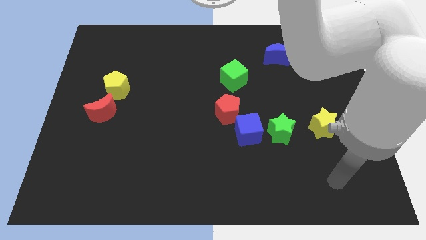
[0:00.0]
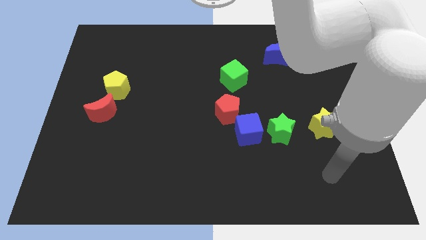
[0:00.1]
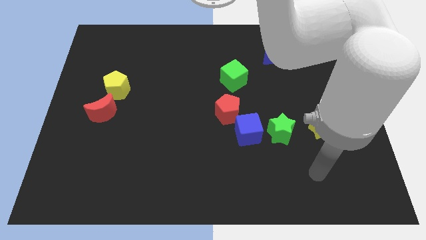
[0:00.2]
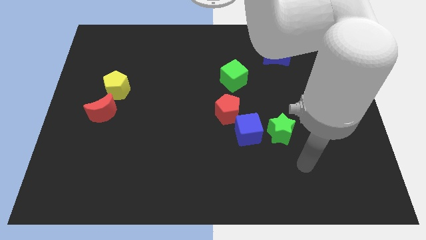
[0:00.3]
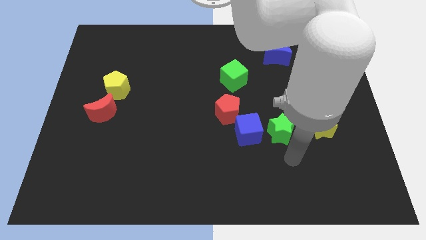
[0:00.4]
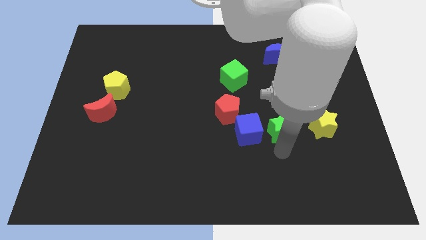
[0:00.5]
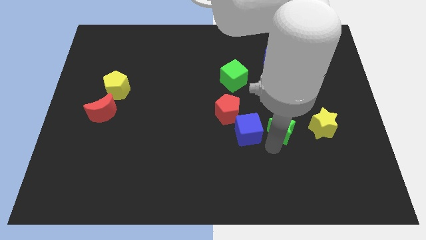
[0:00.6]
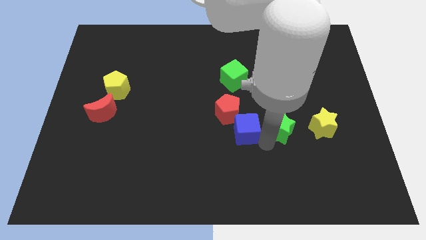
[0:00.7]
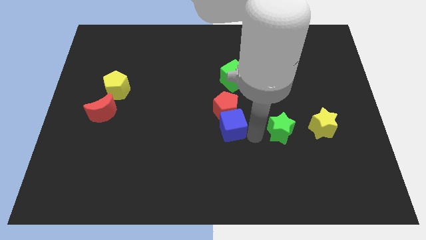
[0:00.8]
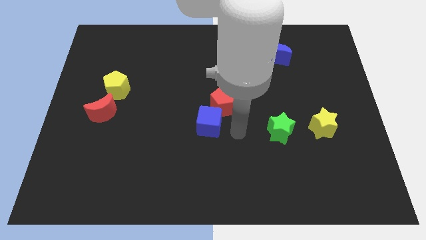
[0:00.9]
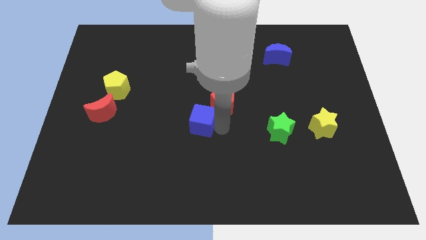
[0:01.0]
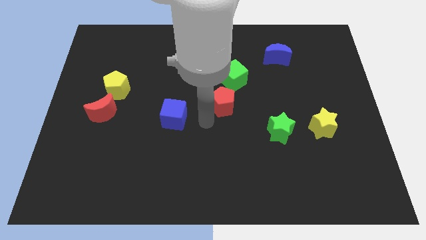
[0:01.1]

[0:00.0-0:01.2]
move the red pentagon away from the blue cube

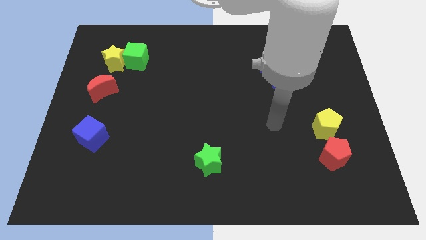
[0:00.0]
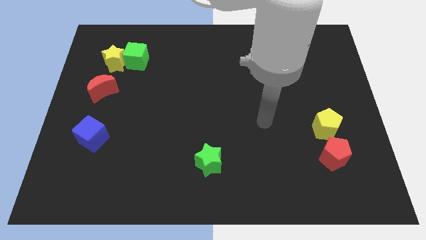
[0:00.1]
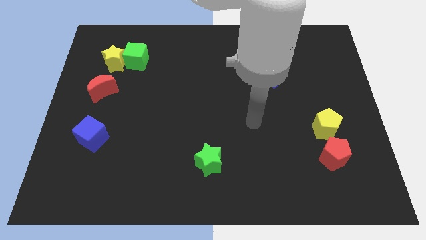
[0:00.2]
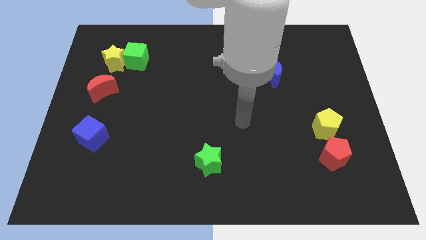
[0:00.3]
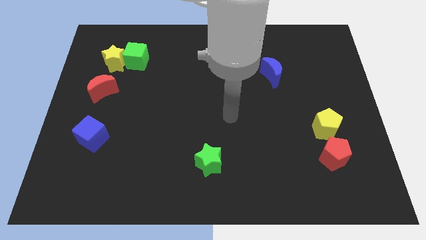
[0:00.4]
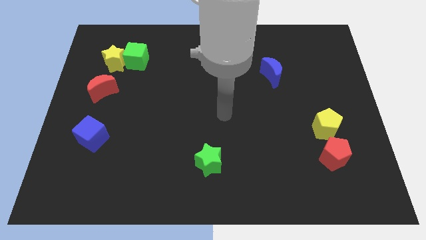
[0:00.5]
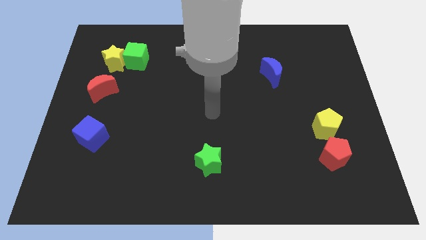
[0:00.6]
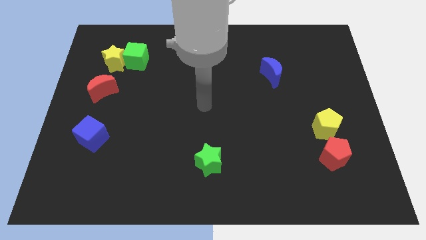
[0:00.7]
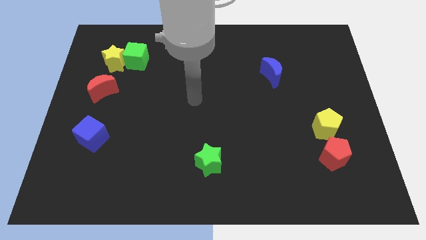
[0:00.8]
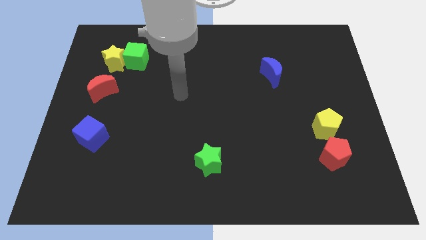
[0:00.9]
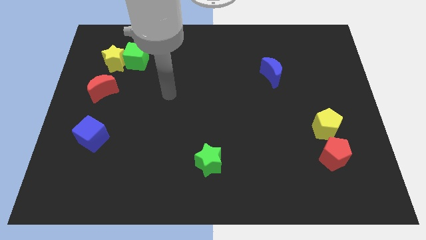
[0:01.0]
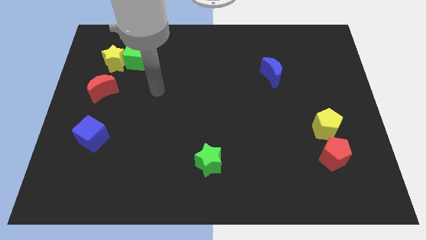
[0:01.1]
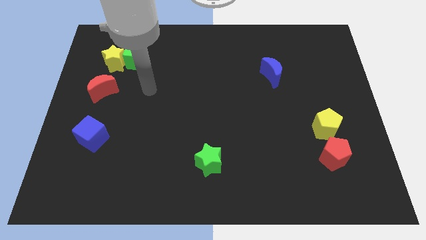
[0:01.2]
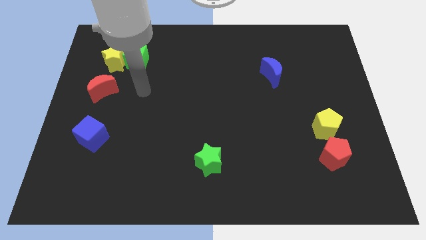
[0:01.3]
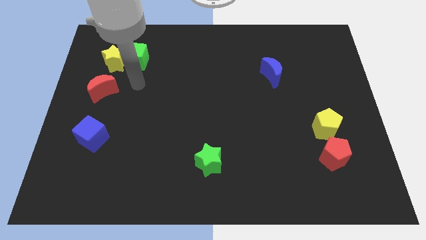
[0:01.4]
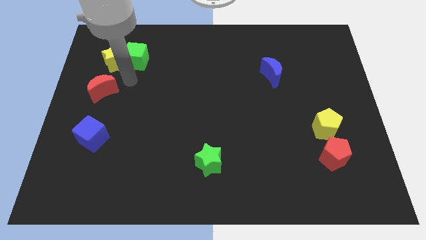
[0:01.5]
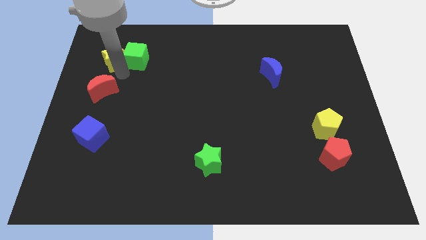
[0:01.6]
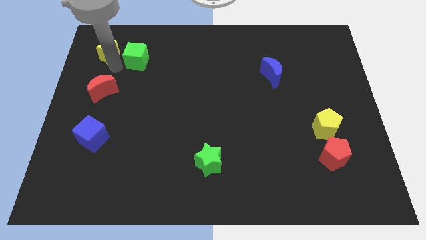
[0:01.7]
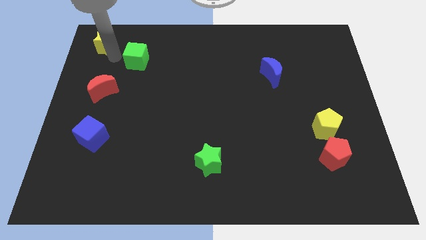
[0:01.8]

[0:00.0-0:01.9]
separate the green cube from the yellow star

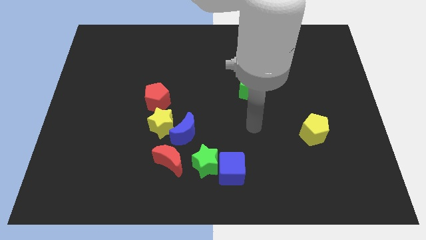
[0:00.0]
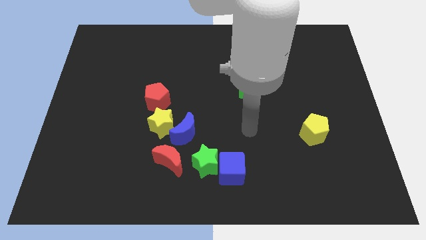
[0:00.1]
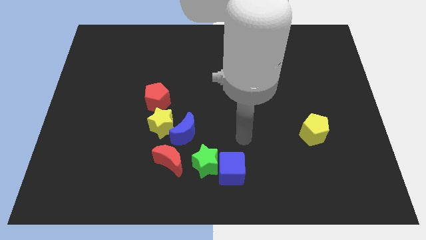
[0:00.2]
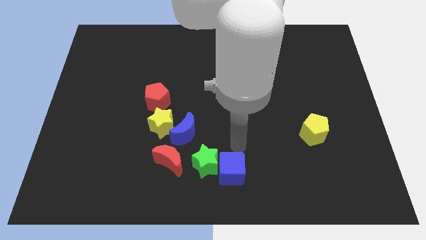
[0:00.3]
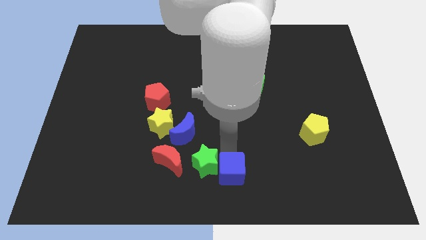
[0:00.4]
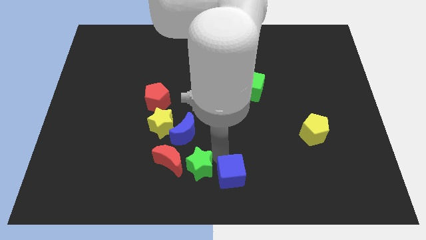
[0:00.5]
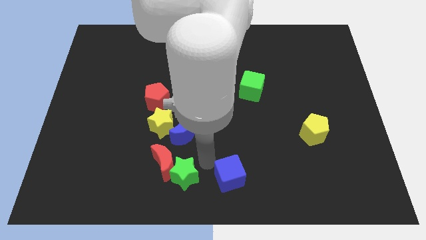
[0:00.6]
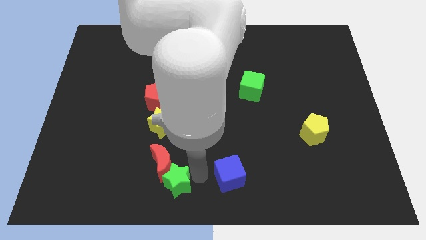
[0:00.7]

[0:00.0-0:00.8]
move the blue cube away from the green star

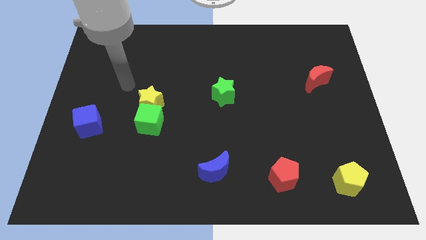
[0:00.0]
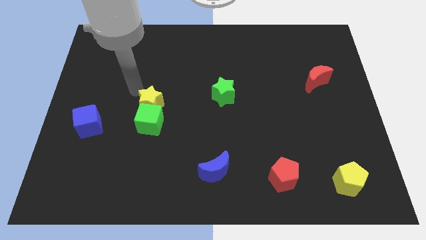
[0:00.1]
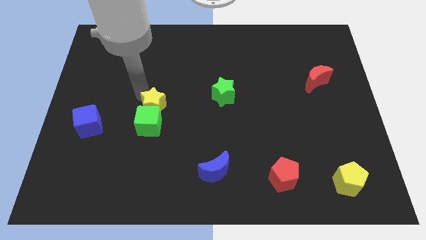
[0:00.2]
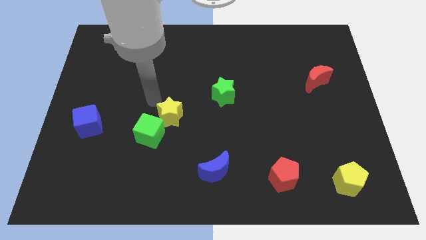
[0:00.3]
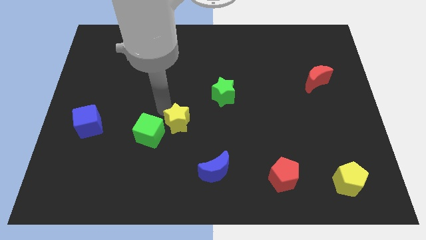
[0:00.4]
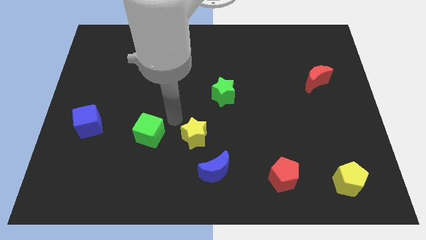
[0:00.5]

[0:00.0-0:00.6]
move the green cube away from the yellow star

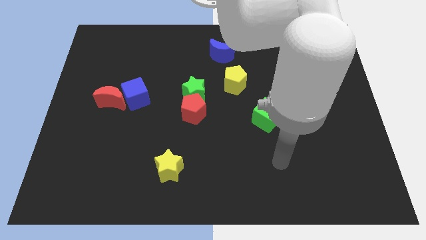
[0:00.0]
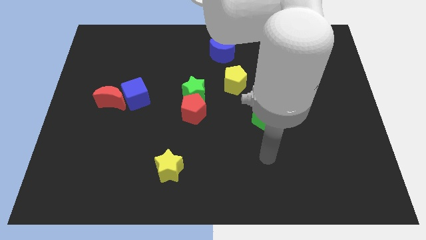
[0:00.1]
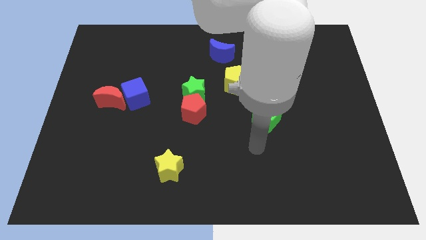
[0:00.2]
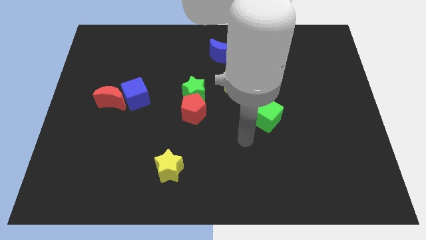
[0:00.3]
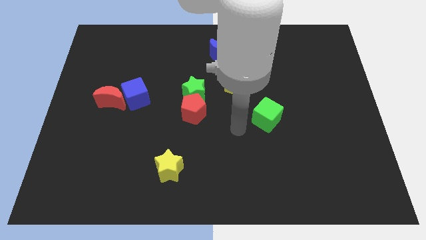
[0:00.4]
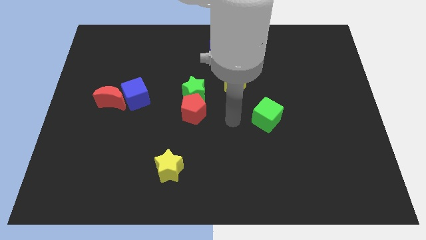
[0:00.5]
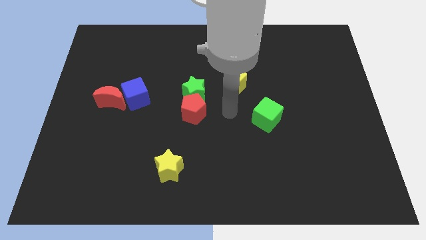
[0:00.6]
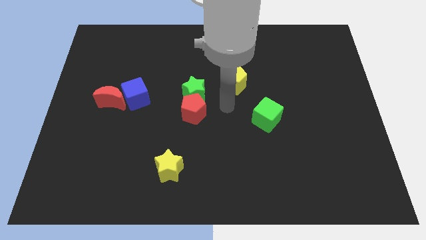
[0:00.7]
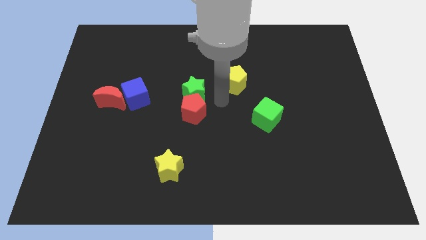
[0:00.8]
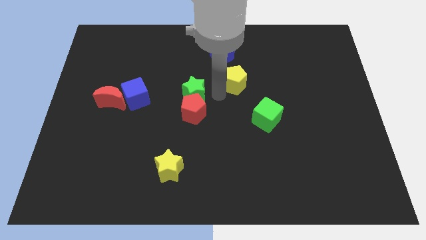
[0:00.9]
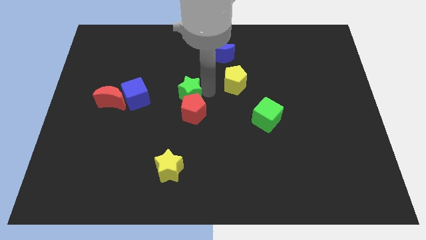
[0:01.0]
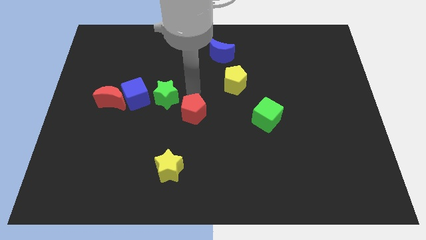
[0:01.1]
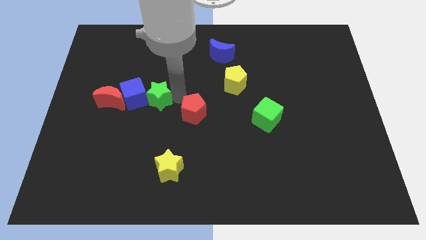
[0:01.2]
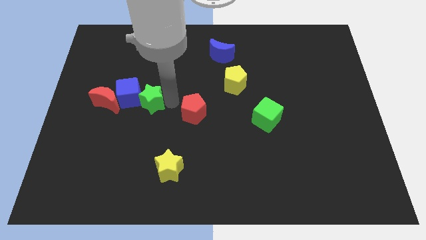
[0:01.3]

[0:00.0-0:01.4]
separate the red pentagon from the green star

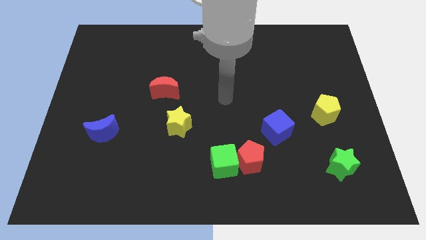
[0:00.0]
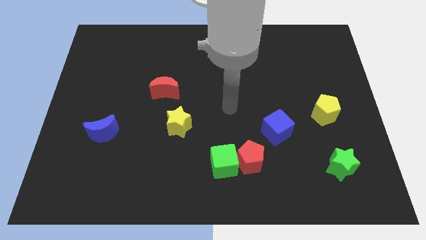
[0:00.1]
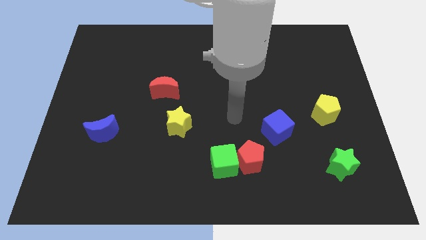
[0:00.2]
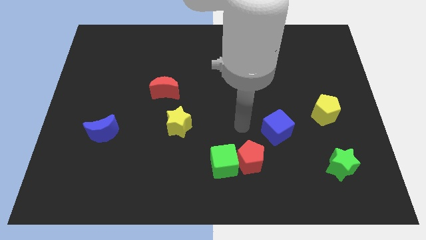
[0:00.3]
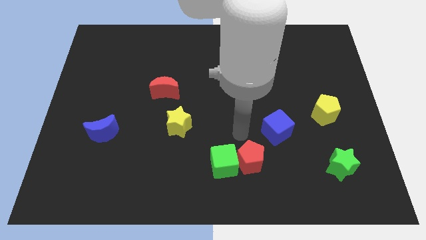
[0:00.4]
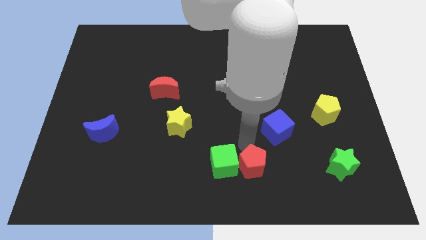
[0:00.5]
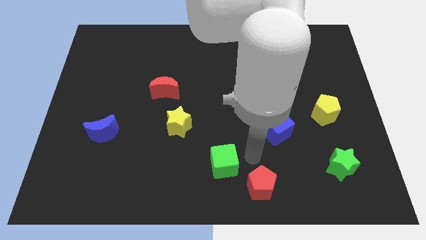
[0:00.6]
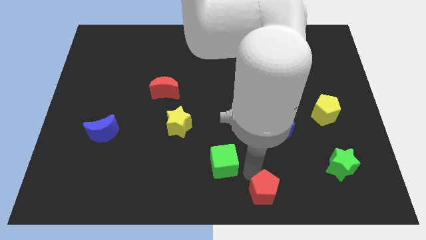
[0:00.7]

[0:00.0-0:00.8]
separate the green cube from the red pentagon

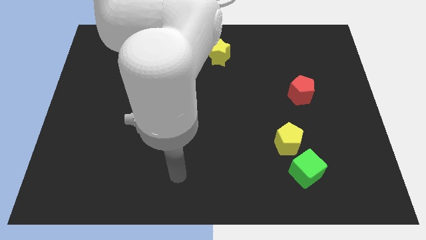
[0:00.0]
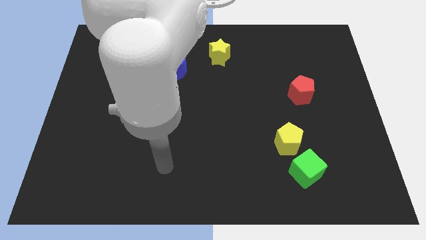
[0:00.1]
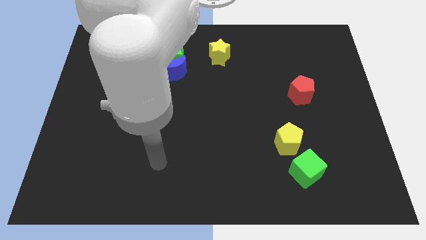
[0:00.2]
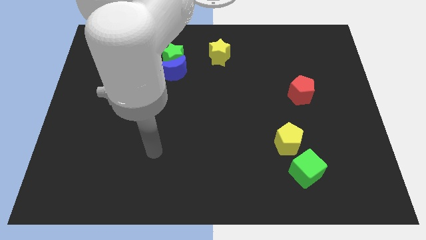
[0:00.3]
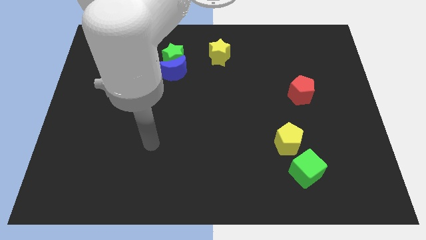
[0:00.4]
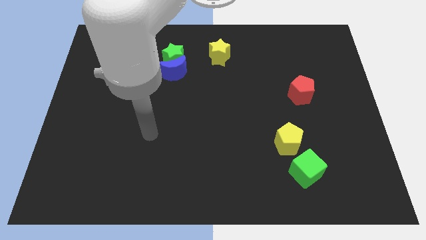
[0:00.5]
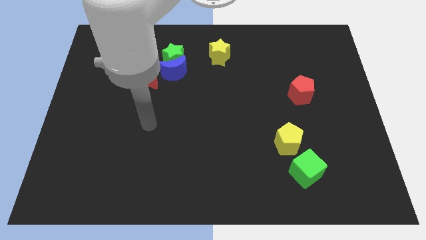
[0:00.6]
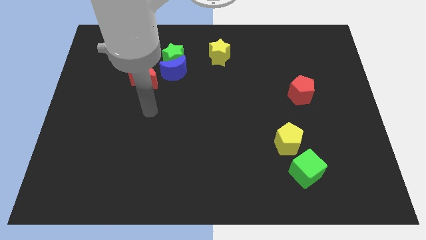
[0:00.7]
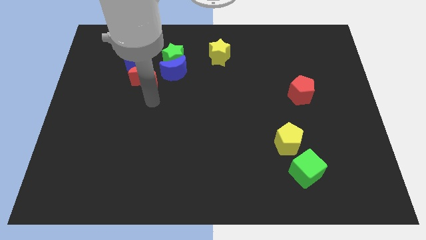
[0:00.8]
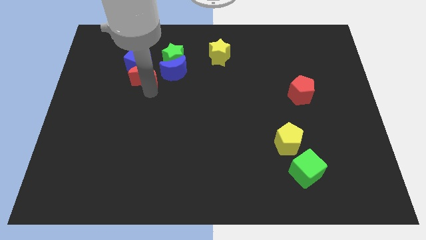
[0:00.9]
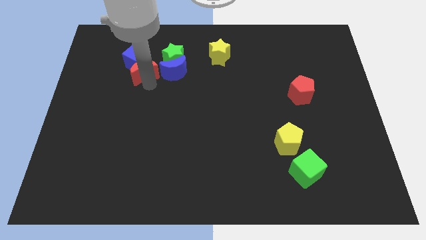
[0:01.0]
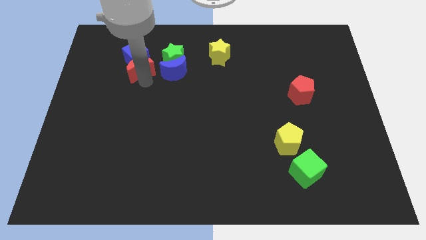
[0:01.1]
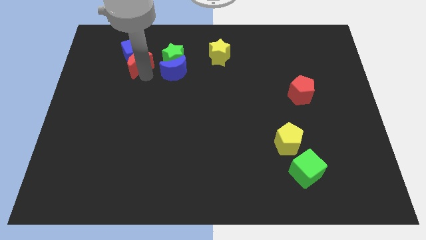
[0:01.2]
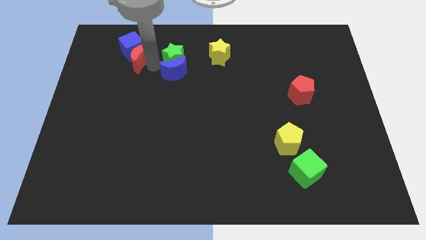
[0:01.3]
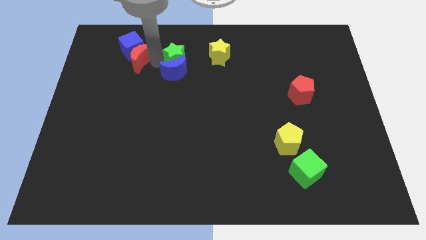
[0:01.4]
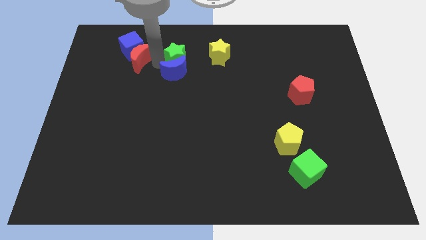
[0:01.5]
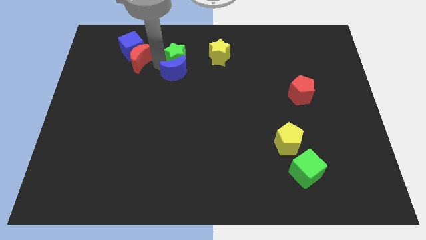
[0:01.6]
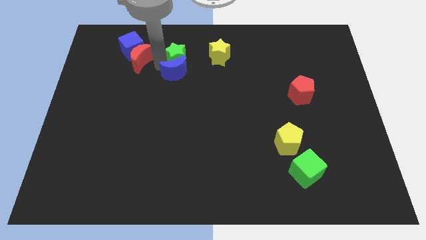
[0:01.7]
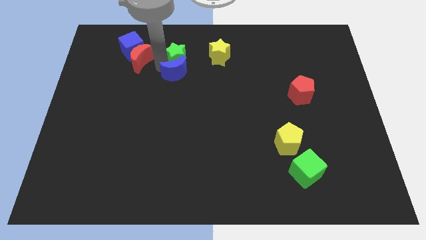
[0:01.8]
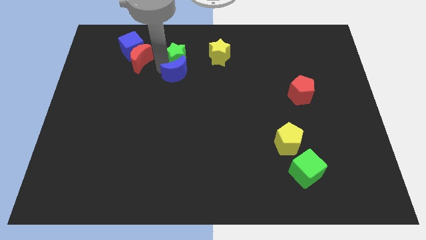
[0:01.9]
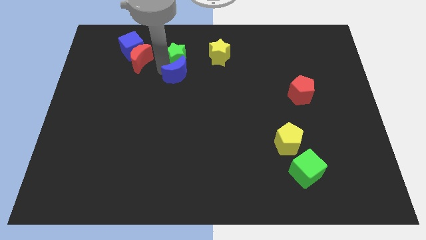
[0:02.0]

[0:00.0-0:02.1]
move the blue moon away from the green star, red moon, and blue cube

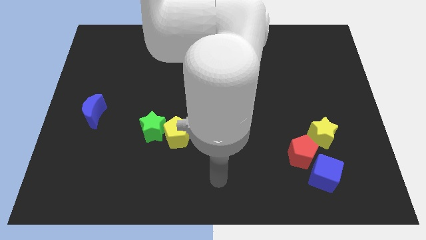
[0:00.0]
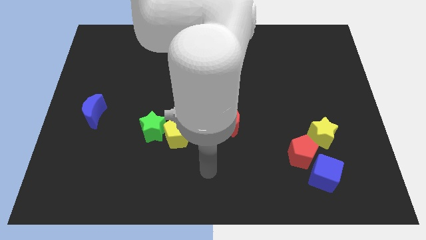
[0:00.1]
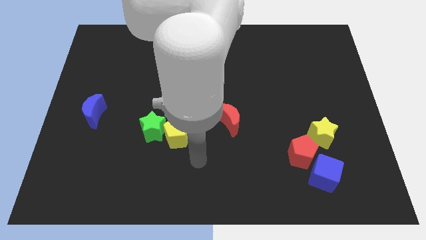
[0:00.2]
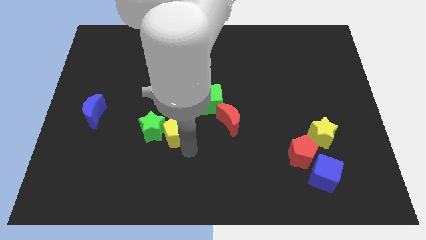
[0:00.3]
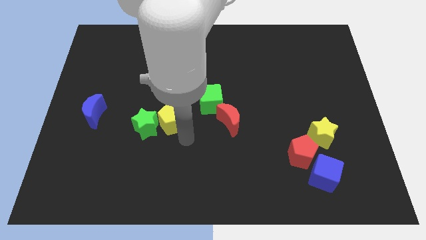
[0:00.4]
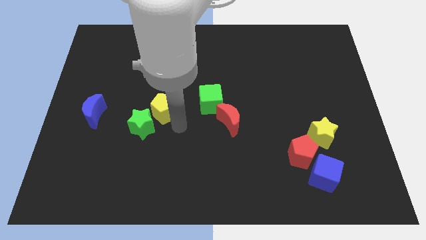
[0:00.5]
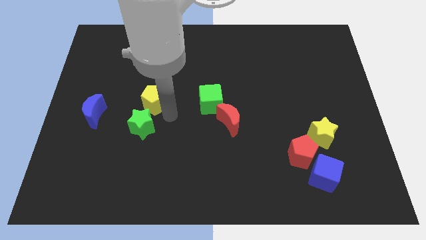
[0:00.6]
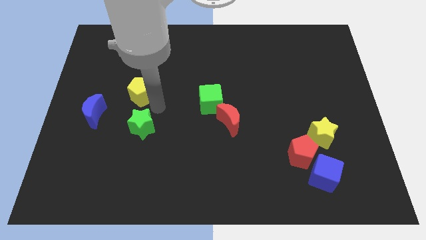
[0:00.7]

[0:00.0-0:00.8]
pull the green star apart from the yellow pentagon
